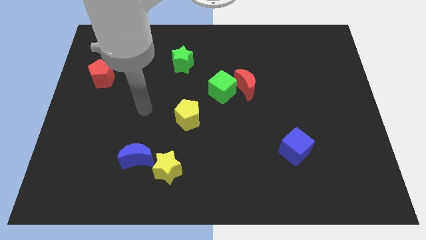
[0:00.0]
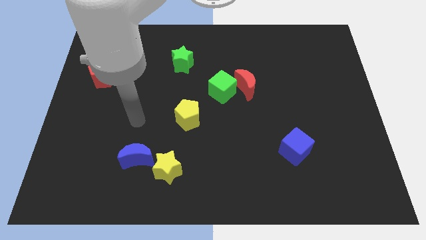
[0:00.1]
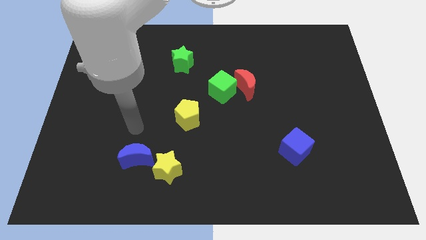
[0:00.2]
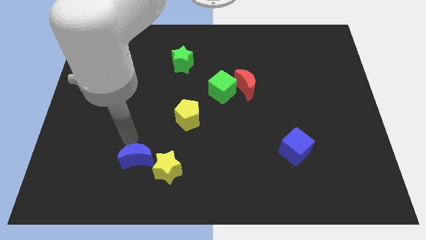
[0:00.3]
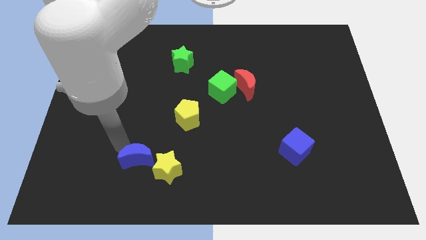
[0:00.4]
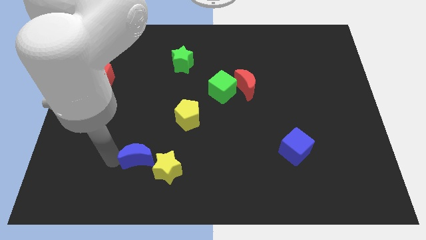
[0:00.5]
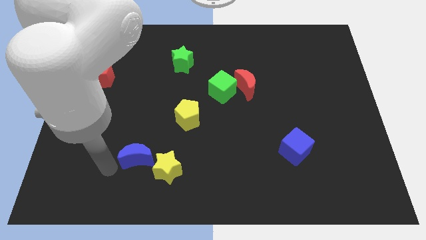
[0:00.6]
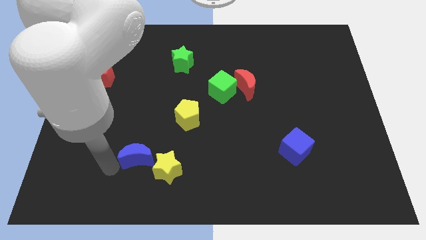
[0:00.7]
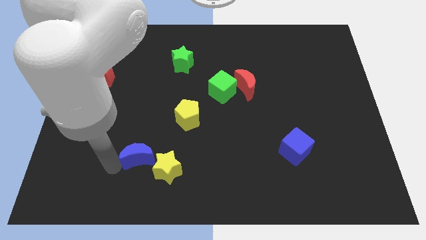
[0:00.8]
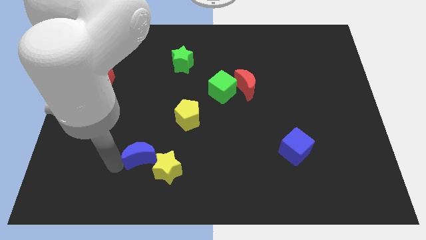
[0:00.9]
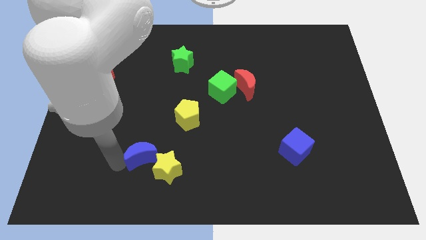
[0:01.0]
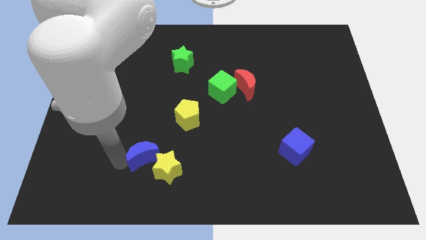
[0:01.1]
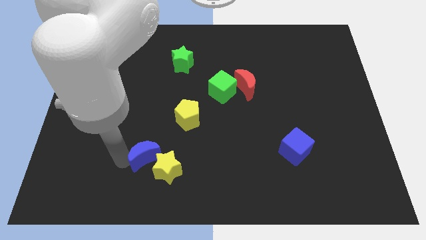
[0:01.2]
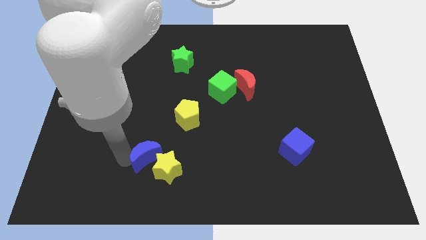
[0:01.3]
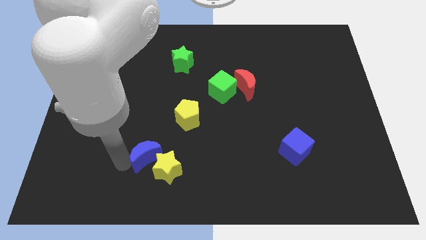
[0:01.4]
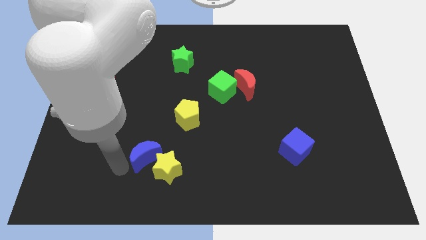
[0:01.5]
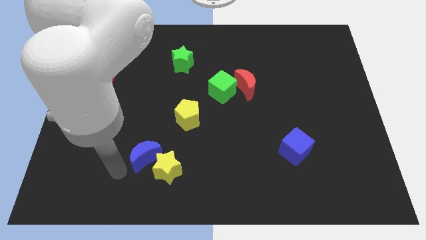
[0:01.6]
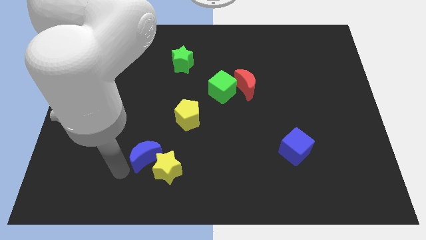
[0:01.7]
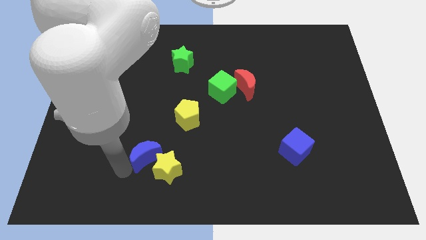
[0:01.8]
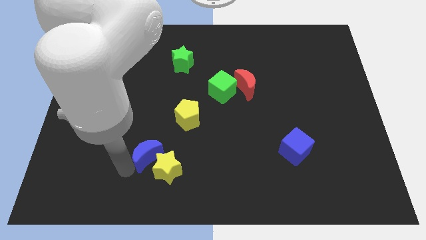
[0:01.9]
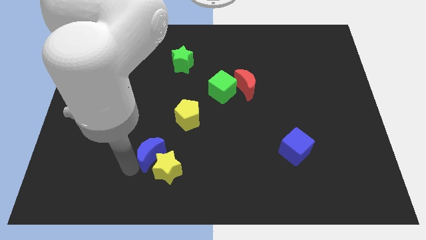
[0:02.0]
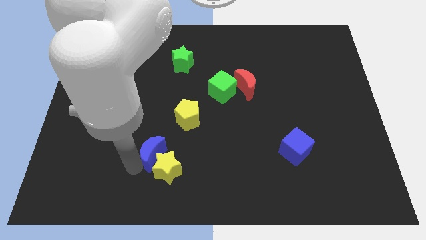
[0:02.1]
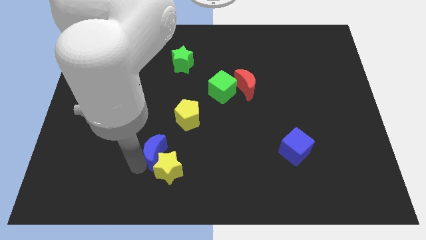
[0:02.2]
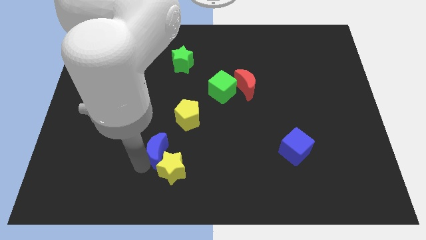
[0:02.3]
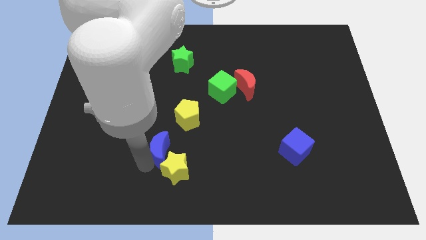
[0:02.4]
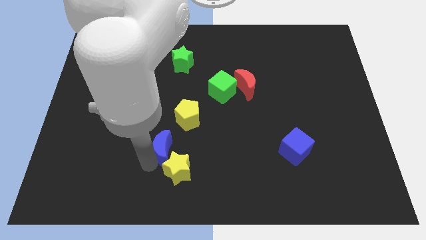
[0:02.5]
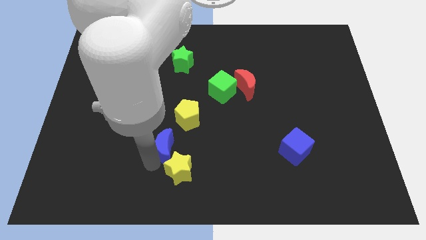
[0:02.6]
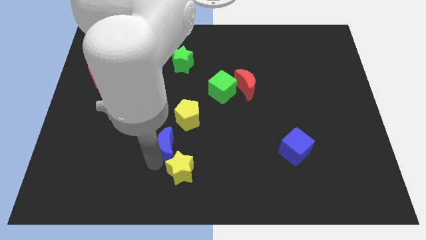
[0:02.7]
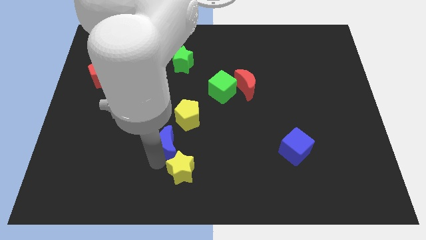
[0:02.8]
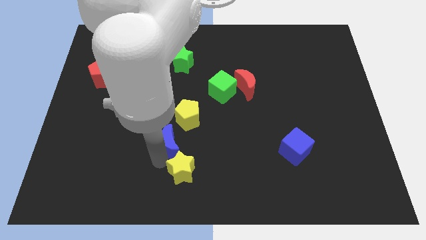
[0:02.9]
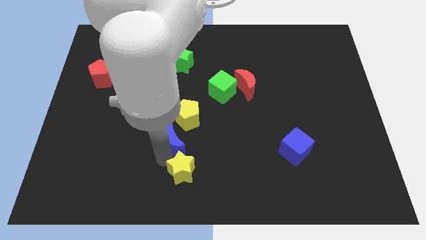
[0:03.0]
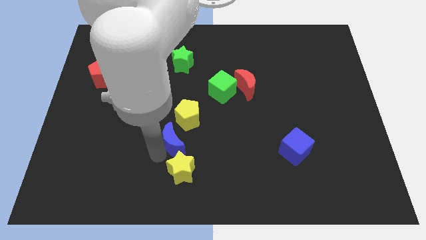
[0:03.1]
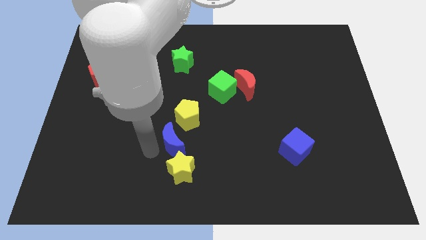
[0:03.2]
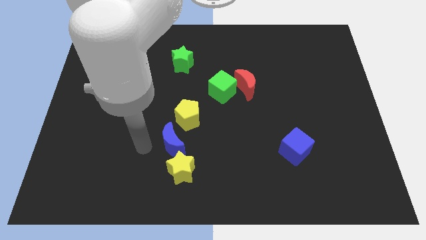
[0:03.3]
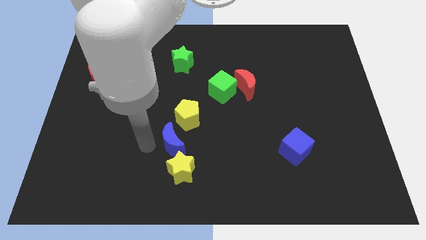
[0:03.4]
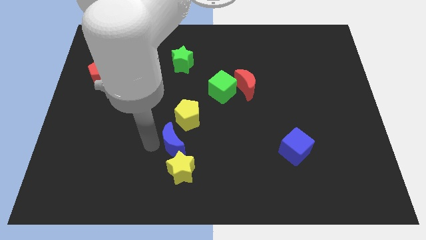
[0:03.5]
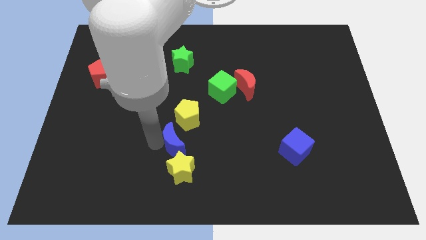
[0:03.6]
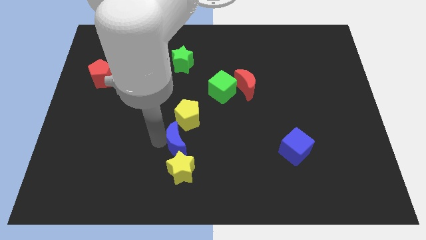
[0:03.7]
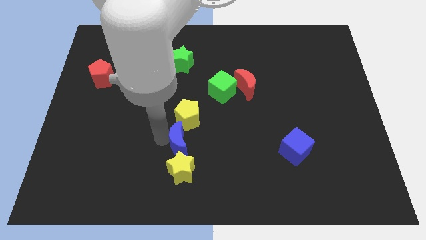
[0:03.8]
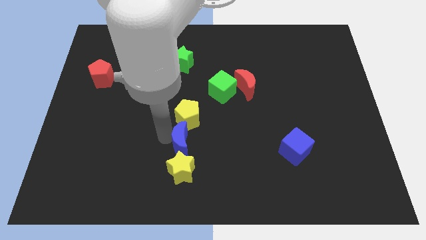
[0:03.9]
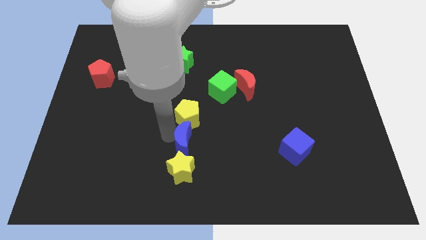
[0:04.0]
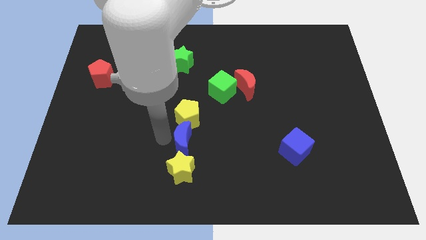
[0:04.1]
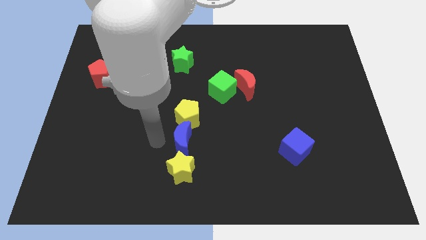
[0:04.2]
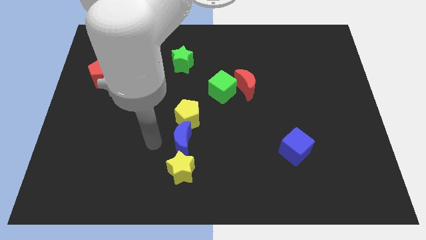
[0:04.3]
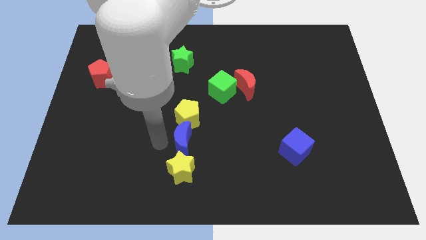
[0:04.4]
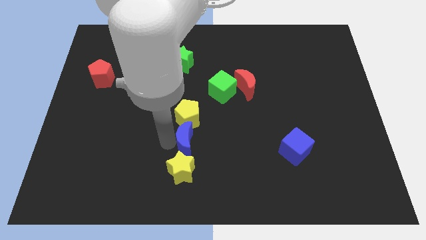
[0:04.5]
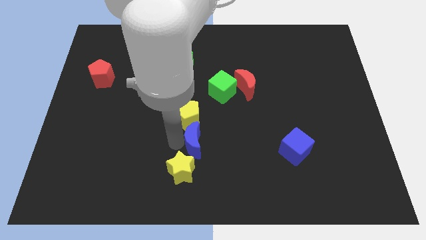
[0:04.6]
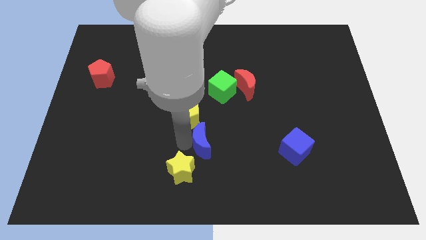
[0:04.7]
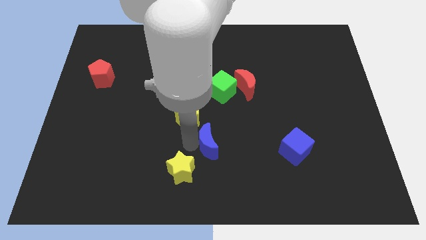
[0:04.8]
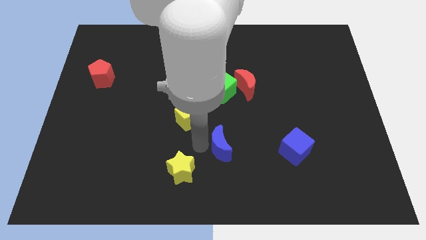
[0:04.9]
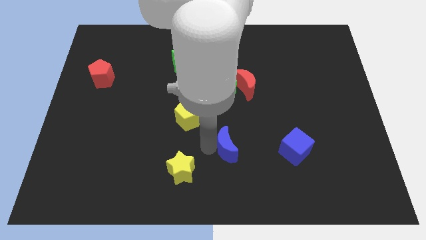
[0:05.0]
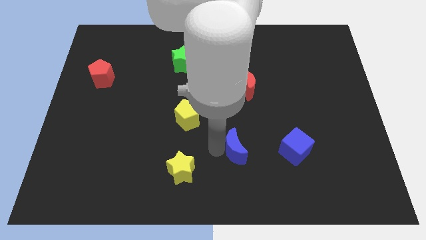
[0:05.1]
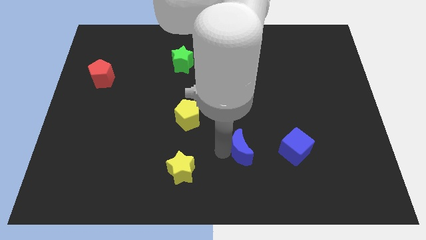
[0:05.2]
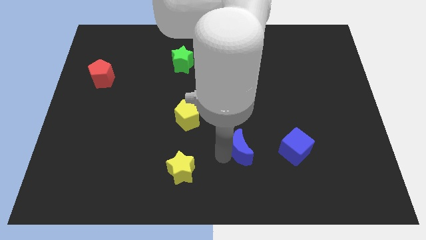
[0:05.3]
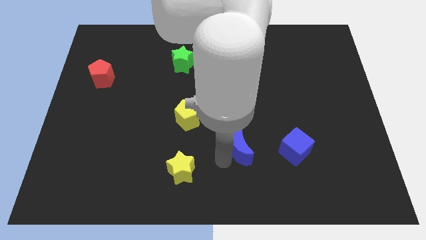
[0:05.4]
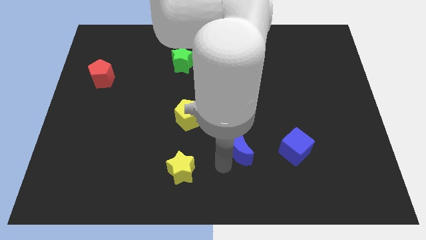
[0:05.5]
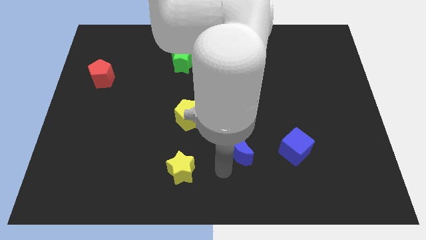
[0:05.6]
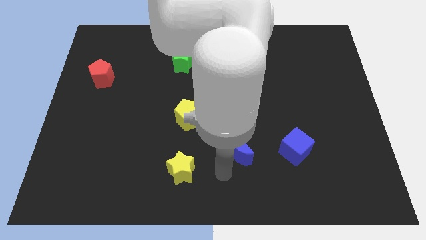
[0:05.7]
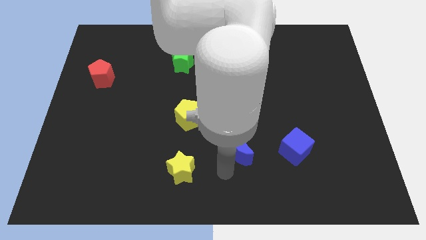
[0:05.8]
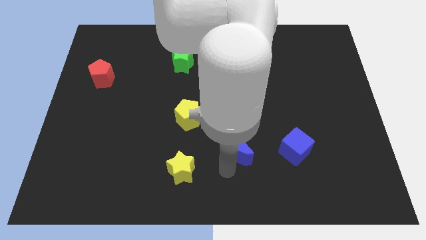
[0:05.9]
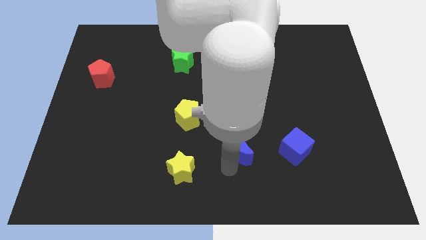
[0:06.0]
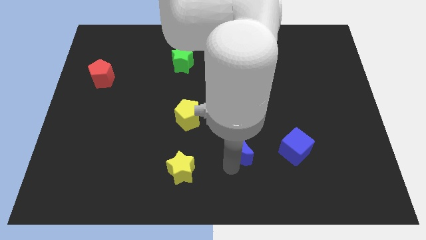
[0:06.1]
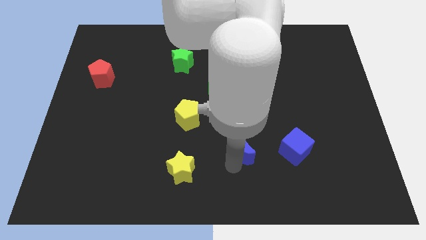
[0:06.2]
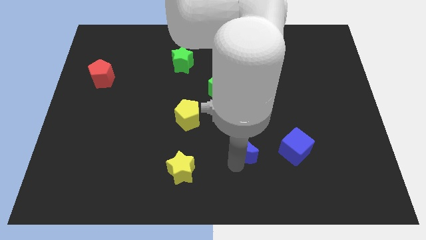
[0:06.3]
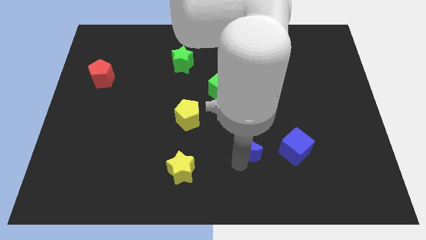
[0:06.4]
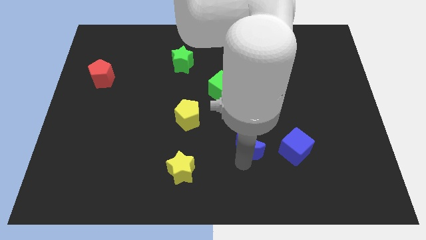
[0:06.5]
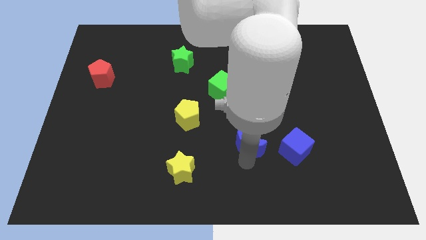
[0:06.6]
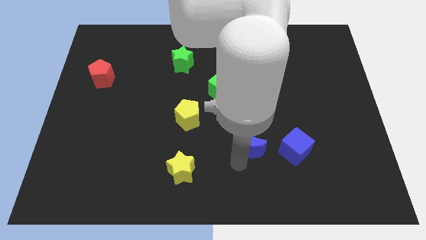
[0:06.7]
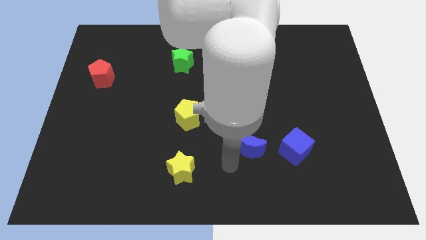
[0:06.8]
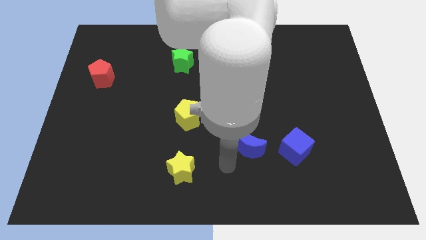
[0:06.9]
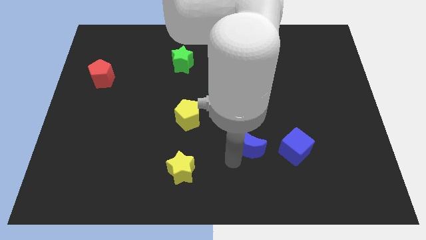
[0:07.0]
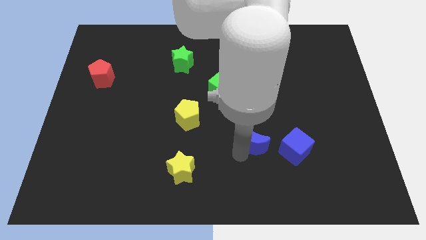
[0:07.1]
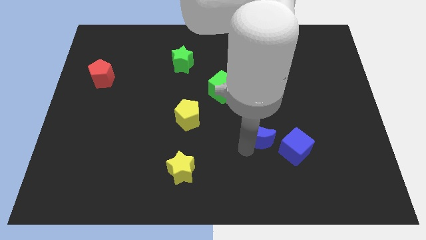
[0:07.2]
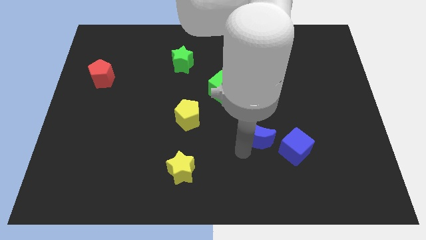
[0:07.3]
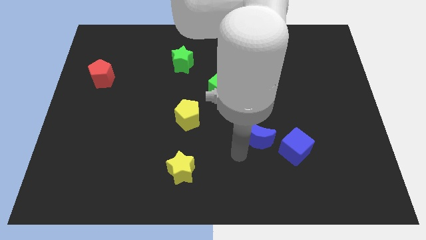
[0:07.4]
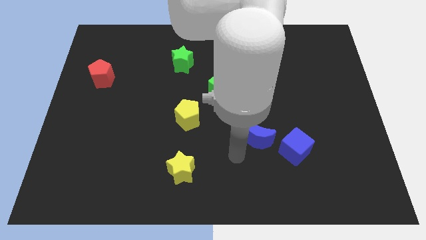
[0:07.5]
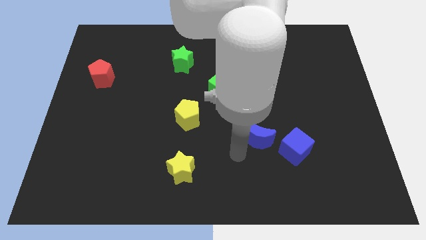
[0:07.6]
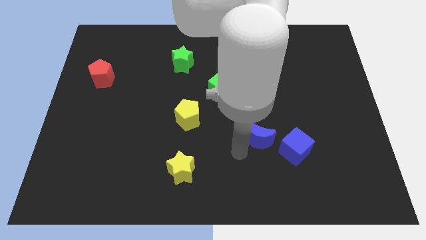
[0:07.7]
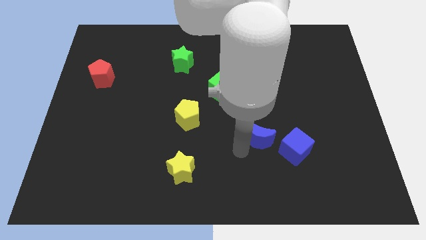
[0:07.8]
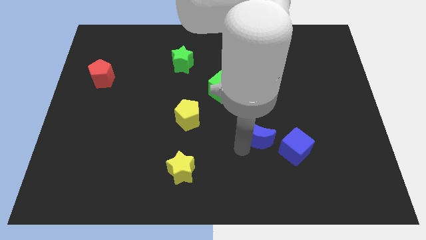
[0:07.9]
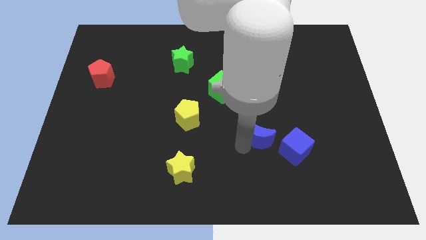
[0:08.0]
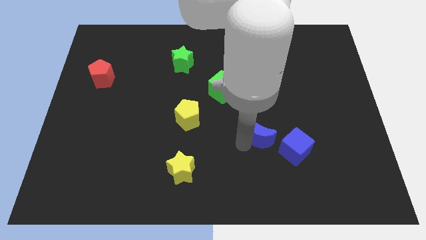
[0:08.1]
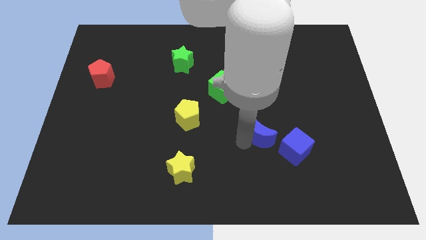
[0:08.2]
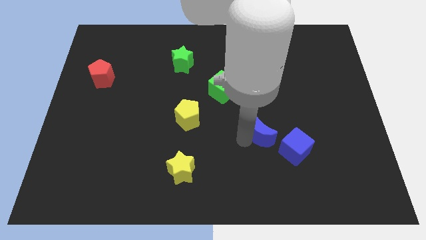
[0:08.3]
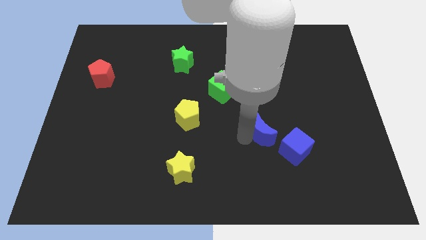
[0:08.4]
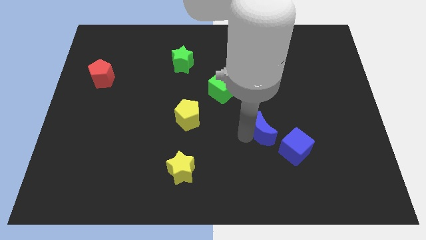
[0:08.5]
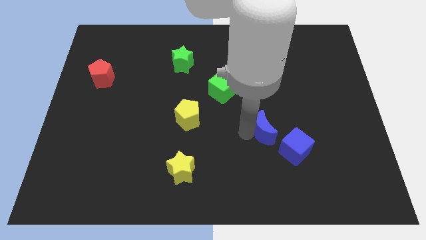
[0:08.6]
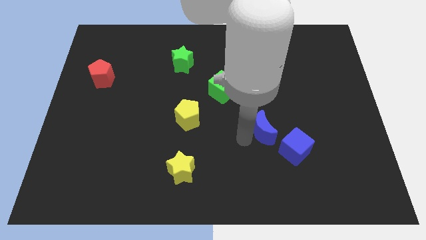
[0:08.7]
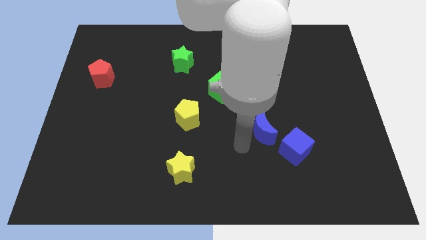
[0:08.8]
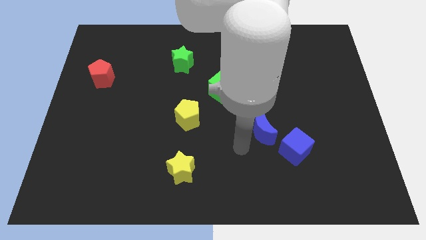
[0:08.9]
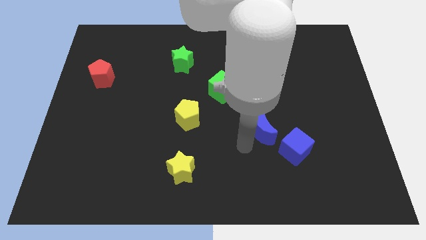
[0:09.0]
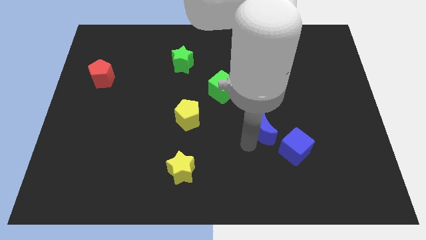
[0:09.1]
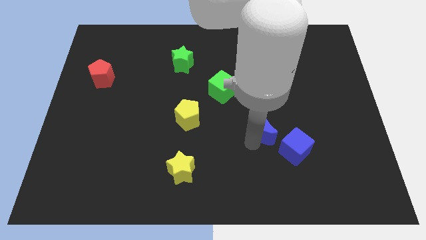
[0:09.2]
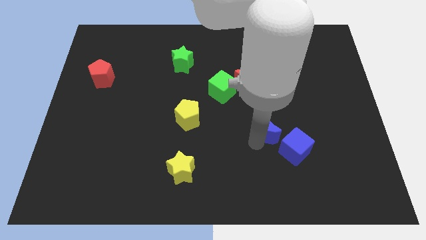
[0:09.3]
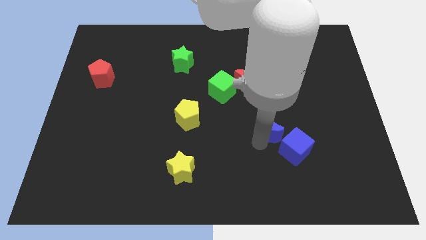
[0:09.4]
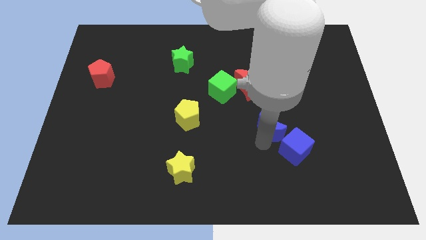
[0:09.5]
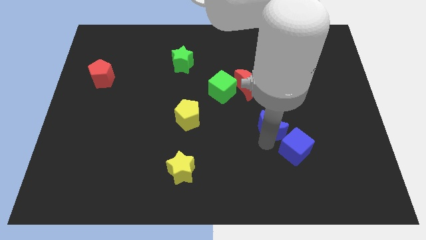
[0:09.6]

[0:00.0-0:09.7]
slide the blue moon to the top of the blue cube
